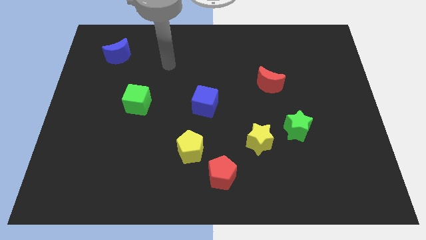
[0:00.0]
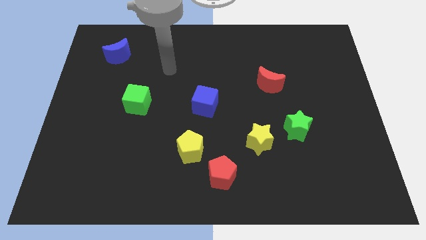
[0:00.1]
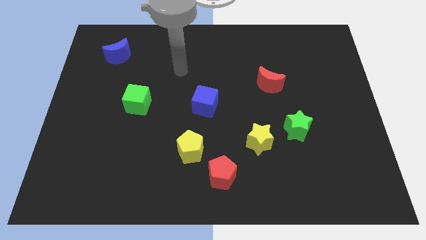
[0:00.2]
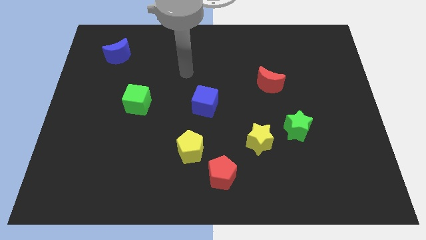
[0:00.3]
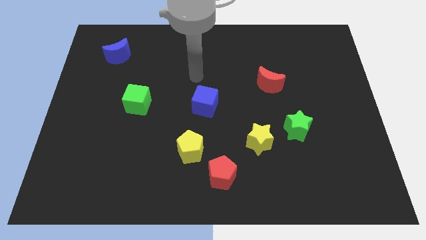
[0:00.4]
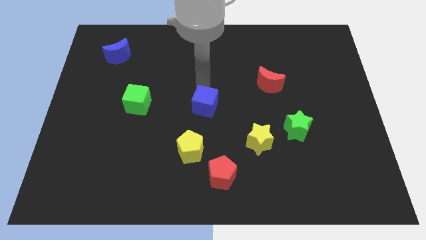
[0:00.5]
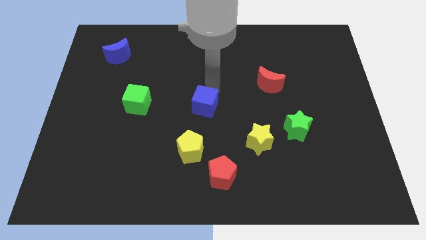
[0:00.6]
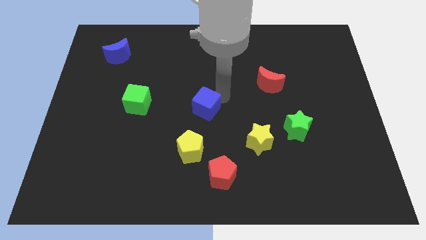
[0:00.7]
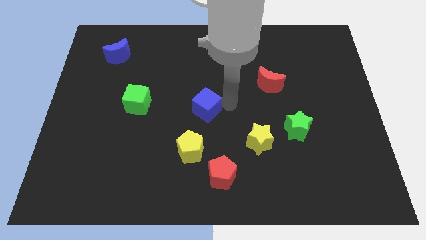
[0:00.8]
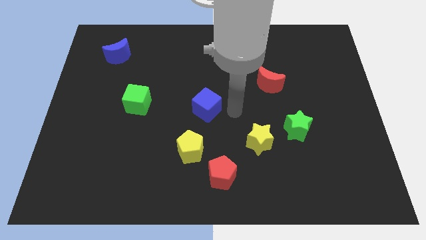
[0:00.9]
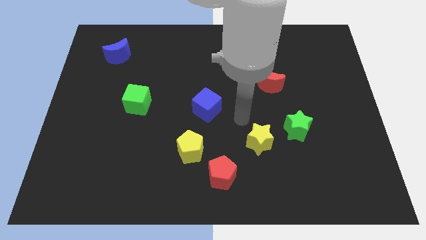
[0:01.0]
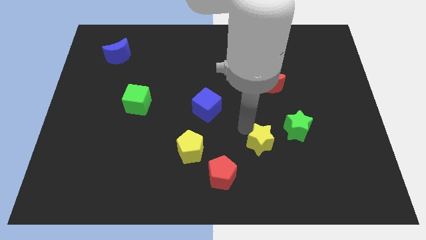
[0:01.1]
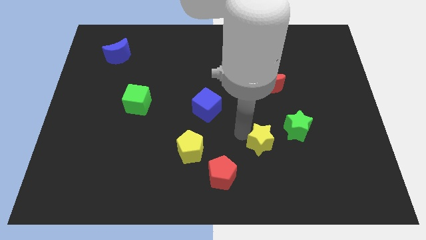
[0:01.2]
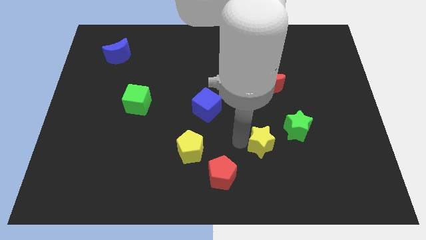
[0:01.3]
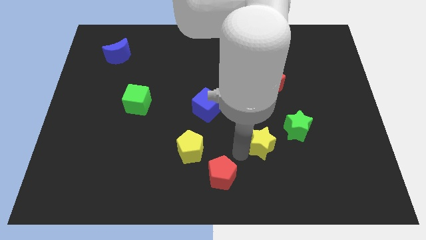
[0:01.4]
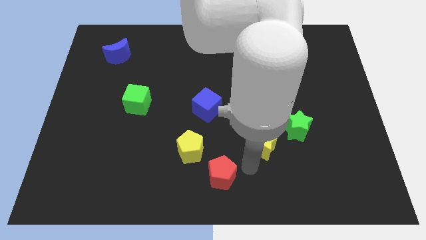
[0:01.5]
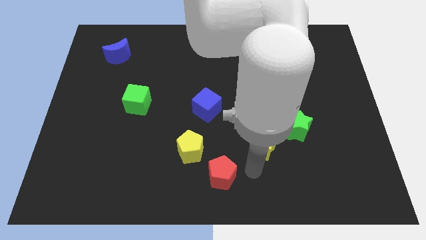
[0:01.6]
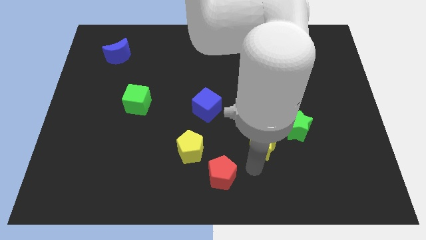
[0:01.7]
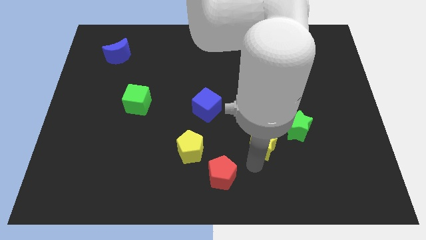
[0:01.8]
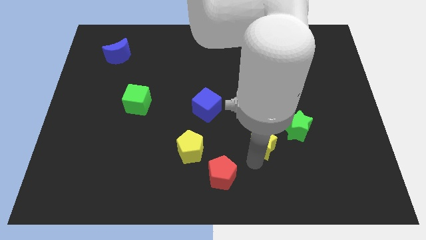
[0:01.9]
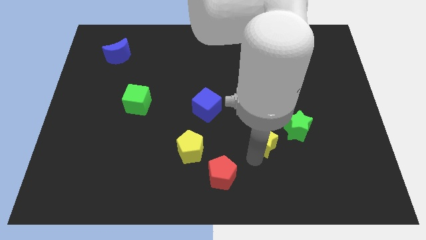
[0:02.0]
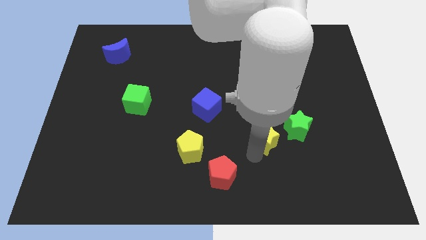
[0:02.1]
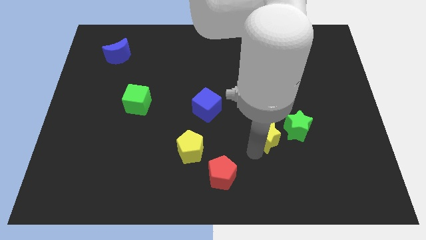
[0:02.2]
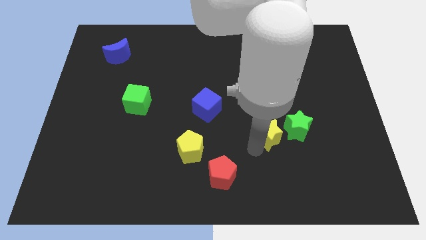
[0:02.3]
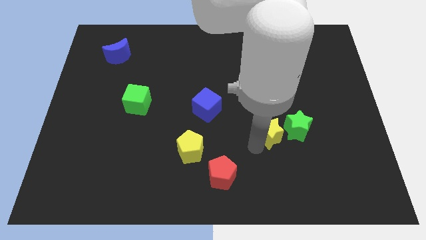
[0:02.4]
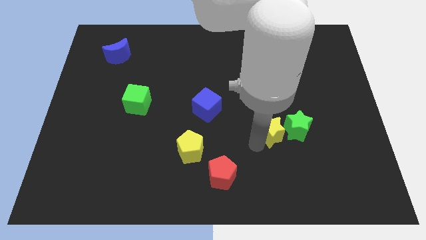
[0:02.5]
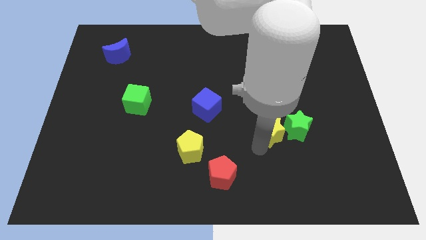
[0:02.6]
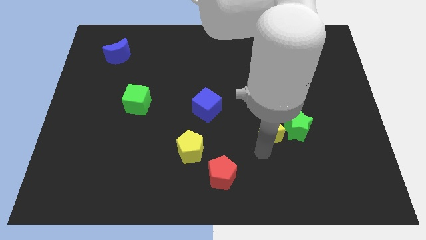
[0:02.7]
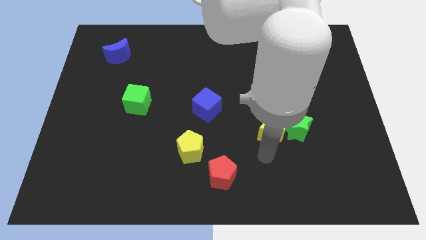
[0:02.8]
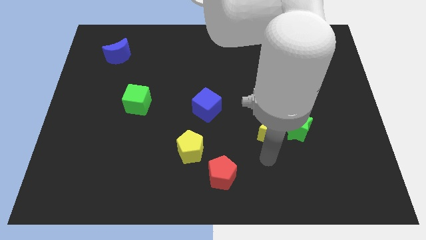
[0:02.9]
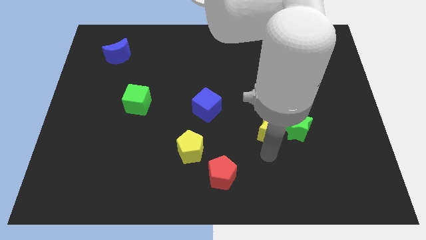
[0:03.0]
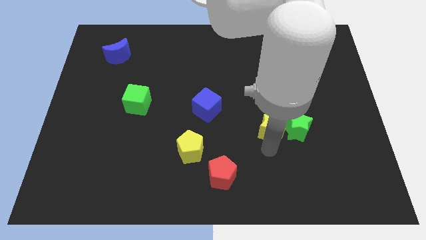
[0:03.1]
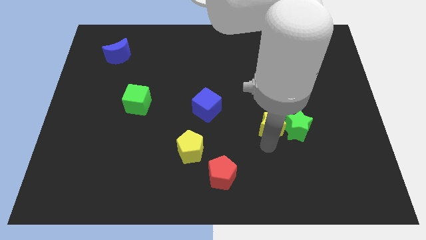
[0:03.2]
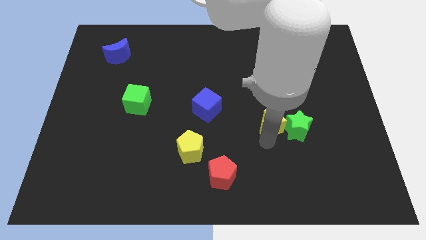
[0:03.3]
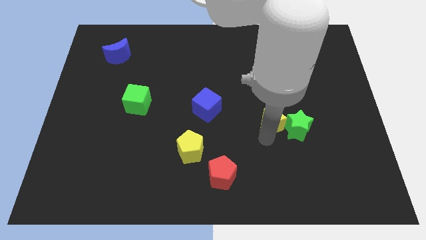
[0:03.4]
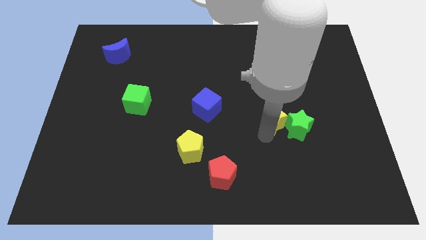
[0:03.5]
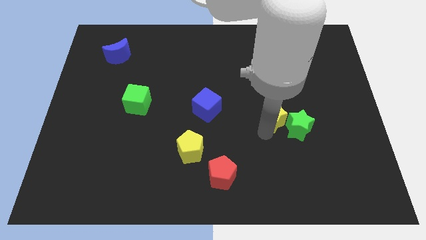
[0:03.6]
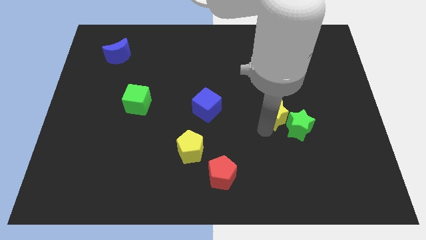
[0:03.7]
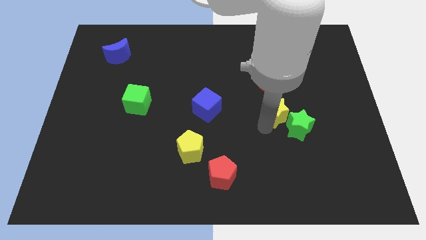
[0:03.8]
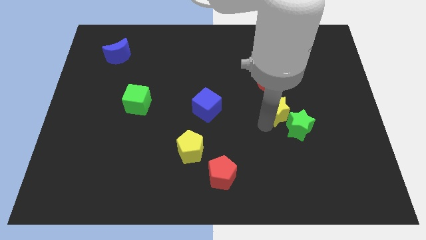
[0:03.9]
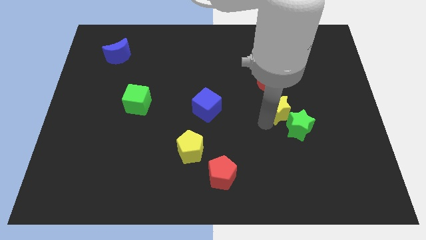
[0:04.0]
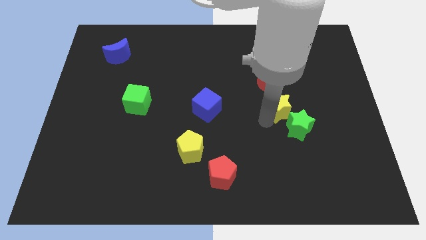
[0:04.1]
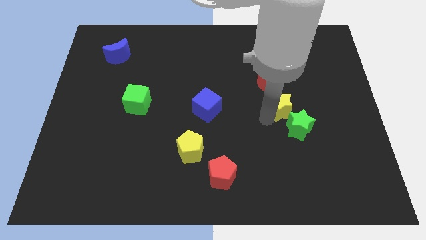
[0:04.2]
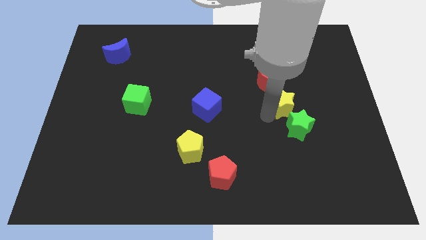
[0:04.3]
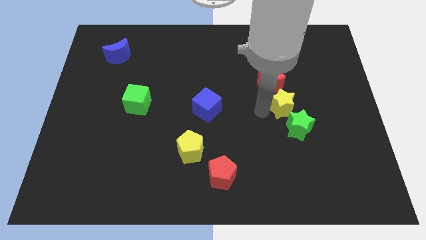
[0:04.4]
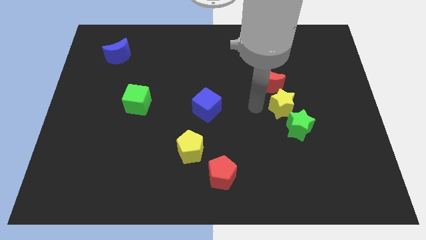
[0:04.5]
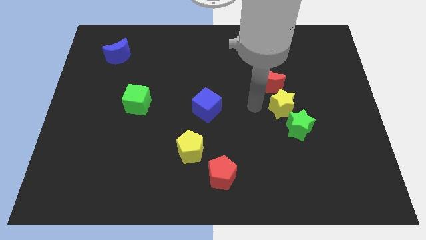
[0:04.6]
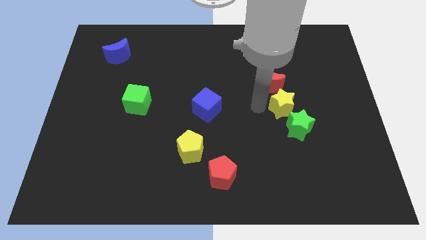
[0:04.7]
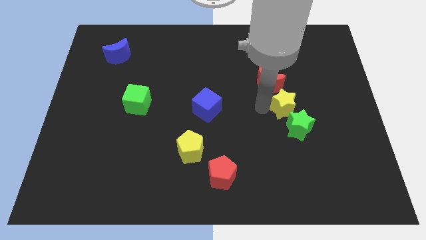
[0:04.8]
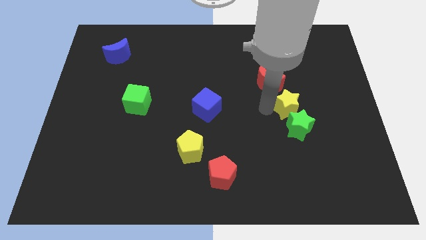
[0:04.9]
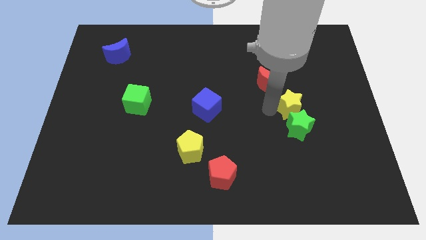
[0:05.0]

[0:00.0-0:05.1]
push the yellow star to the top right of the green star

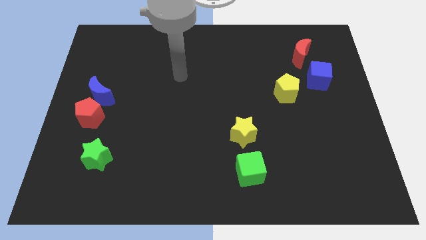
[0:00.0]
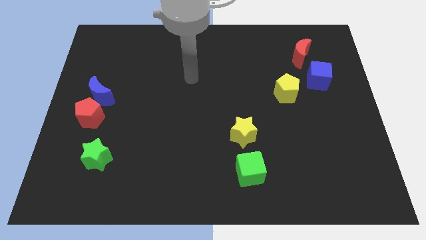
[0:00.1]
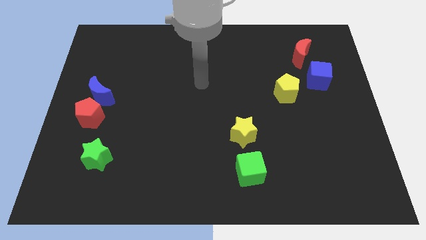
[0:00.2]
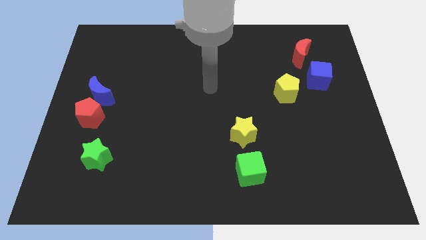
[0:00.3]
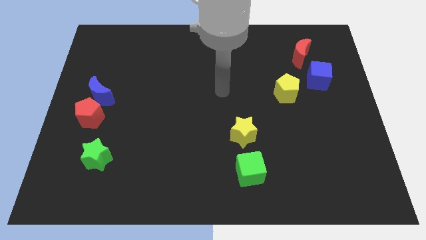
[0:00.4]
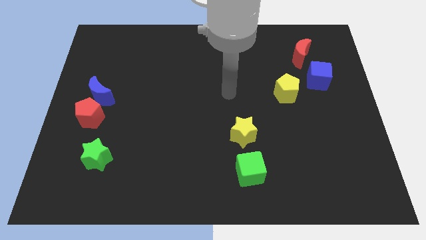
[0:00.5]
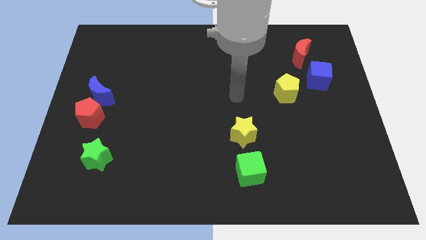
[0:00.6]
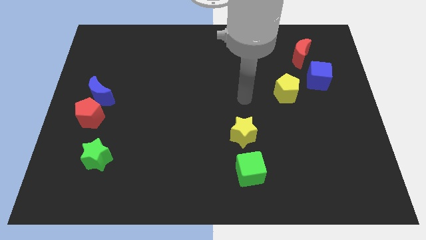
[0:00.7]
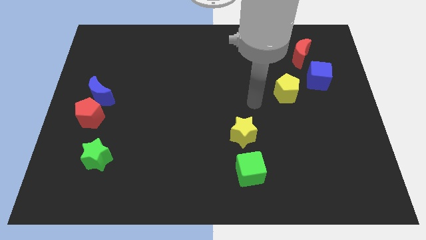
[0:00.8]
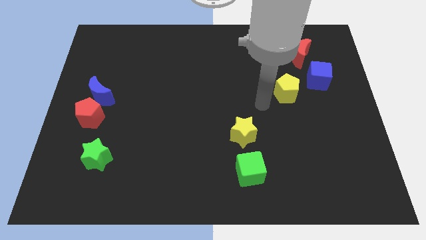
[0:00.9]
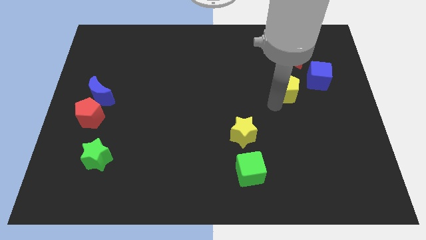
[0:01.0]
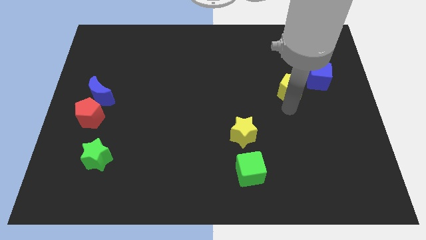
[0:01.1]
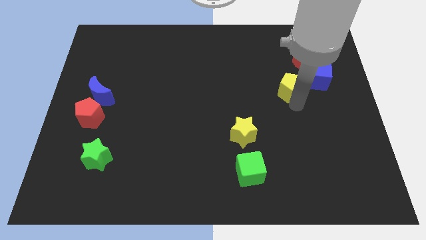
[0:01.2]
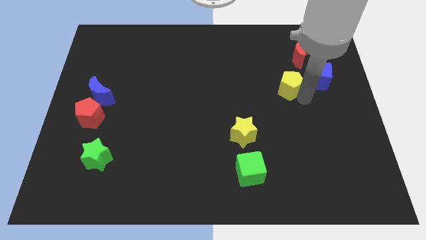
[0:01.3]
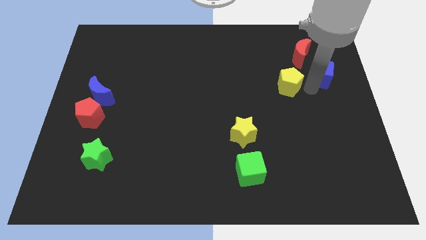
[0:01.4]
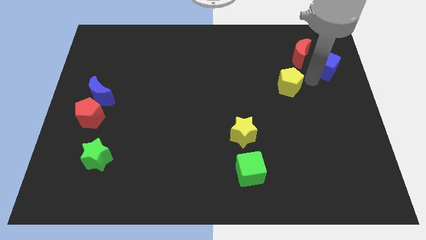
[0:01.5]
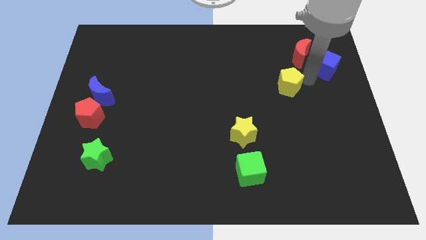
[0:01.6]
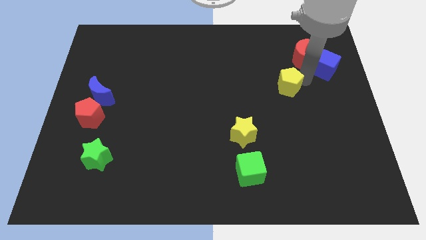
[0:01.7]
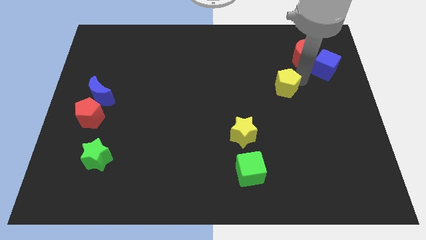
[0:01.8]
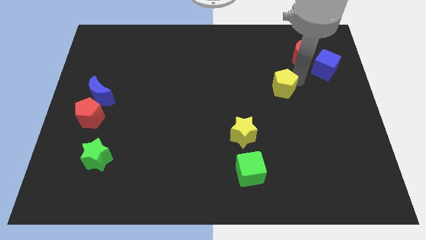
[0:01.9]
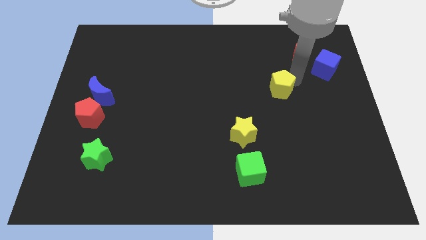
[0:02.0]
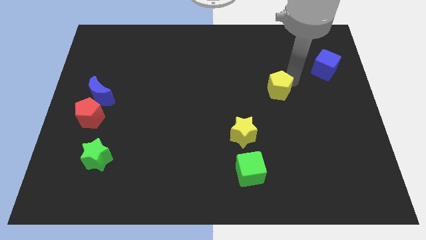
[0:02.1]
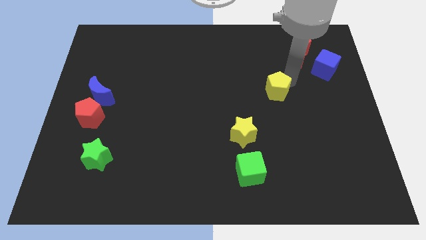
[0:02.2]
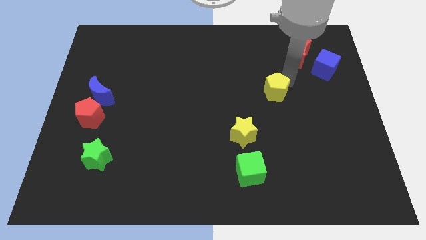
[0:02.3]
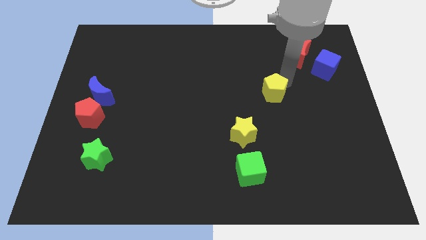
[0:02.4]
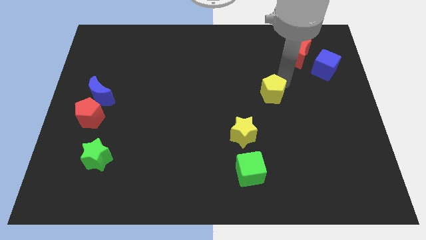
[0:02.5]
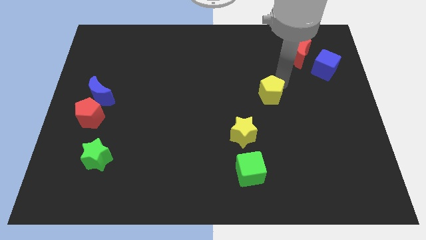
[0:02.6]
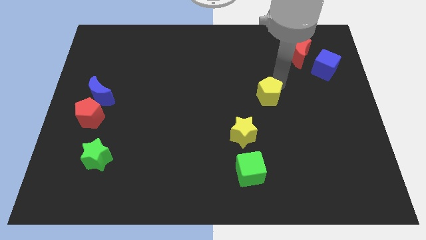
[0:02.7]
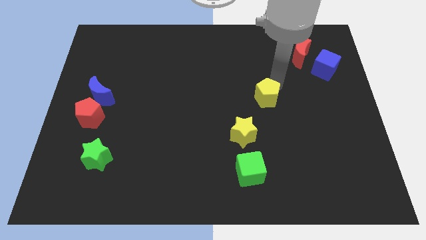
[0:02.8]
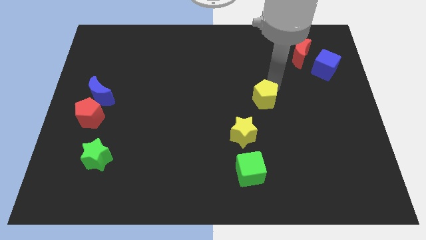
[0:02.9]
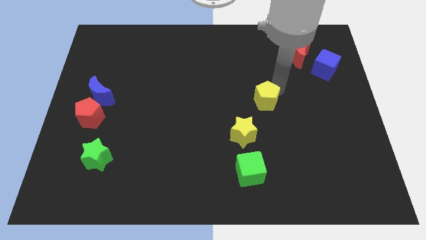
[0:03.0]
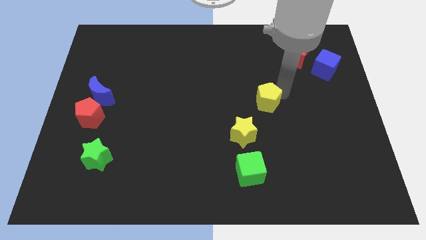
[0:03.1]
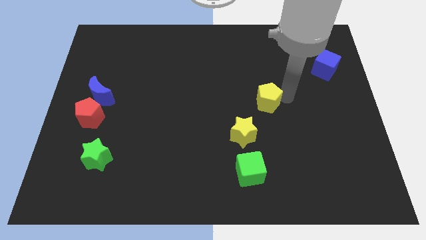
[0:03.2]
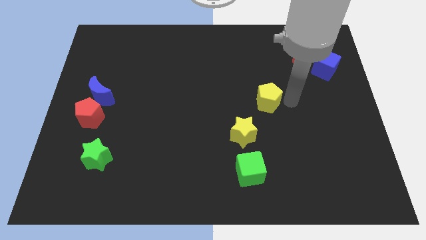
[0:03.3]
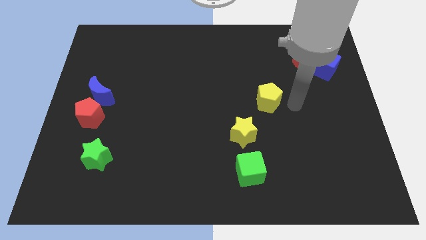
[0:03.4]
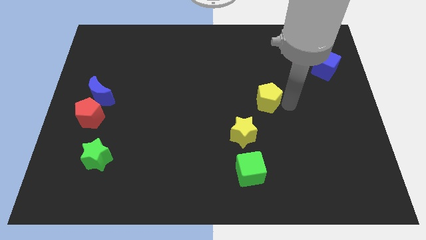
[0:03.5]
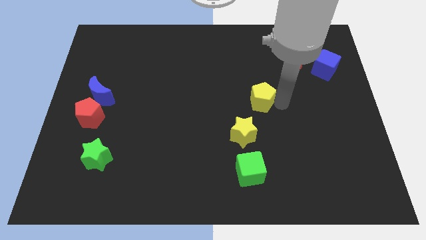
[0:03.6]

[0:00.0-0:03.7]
put the yellow pentagon above the yellow star
